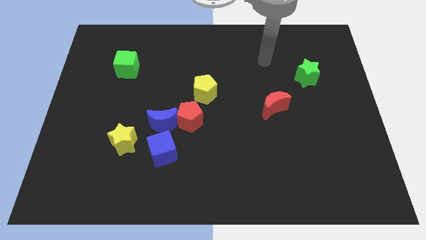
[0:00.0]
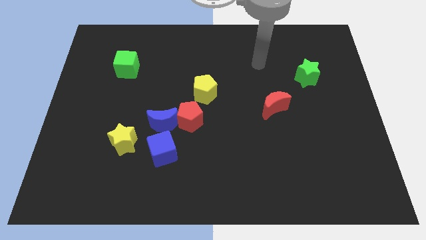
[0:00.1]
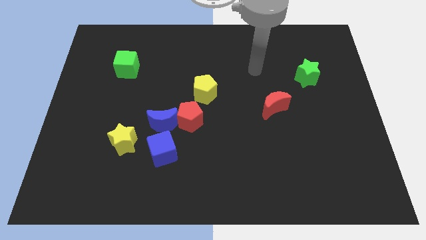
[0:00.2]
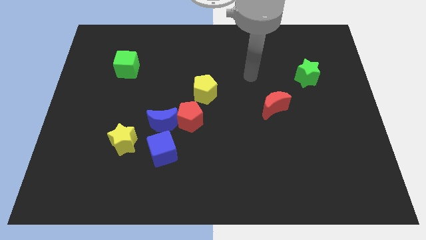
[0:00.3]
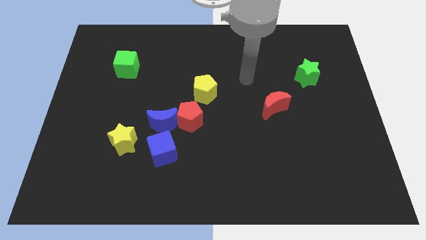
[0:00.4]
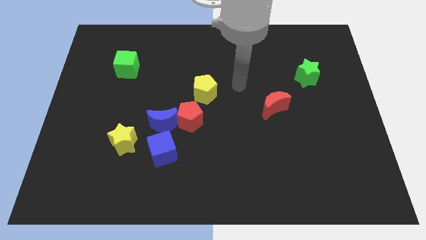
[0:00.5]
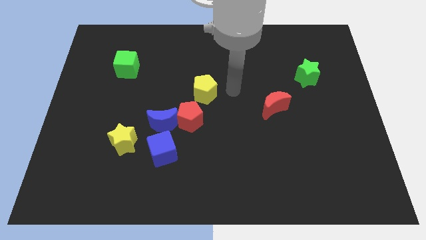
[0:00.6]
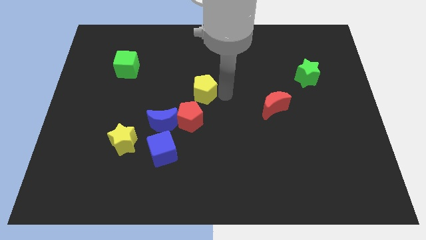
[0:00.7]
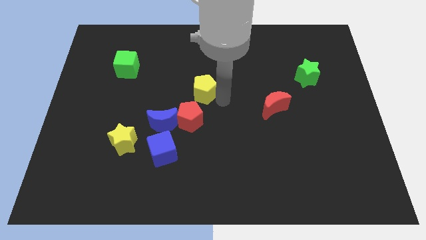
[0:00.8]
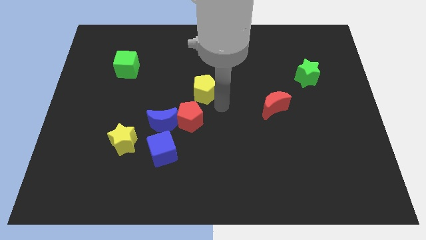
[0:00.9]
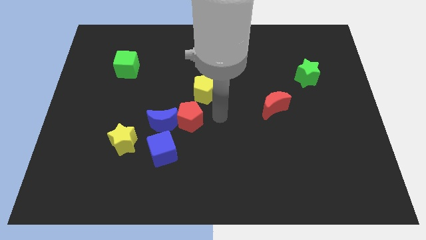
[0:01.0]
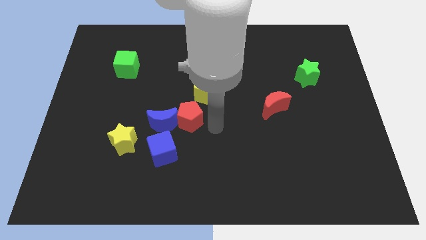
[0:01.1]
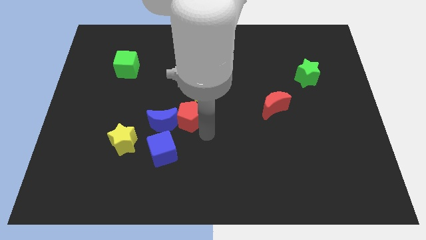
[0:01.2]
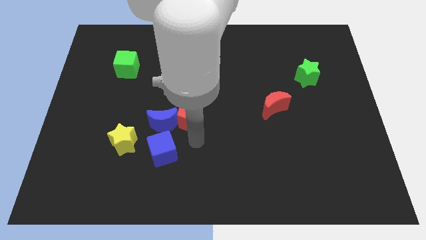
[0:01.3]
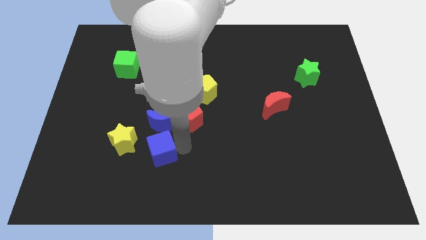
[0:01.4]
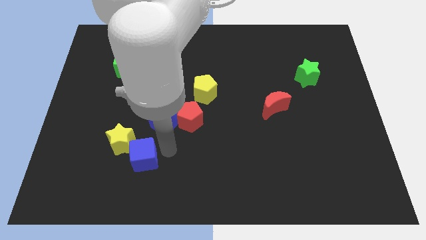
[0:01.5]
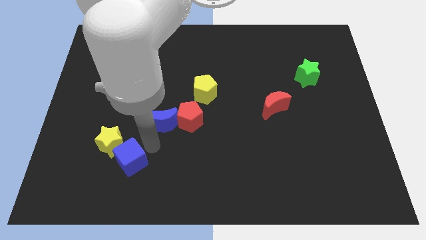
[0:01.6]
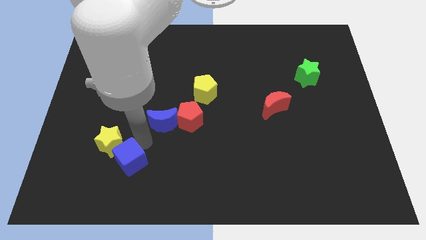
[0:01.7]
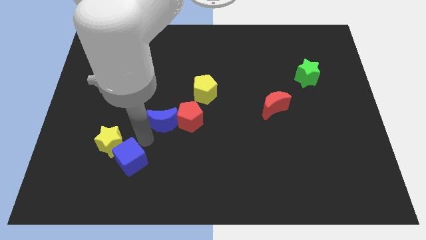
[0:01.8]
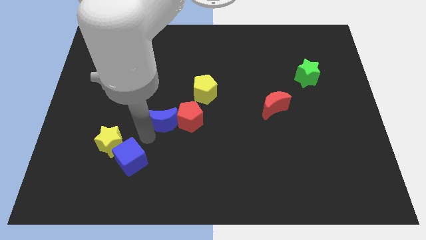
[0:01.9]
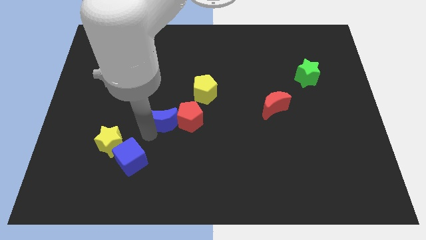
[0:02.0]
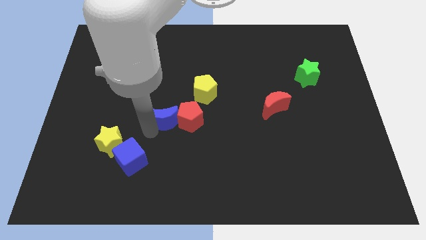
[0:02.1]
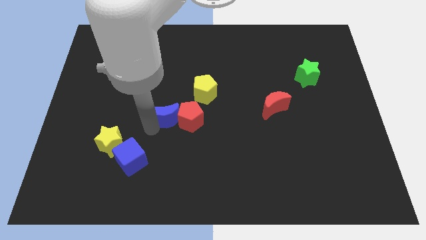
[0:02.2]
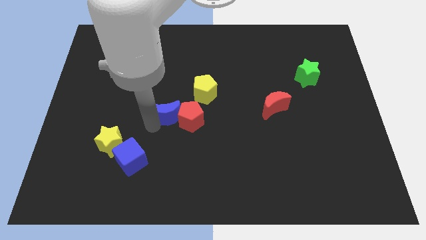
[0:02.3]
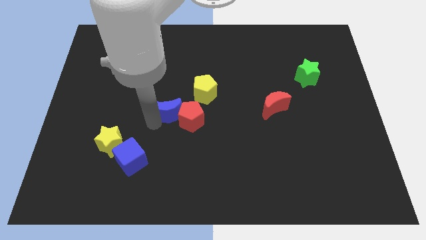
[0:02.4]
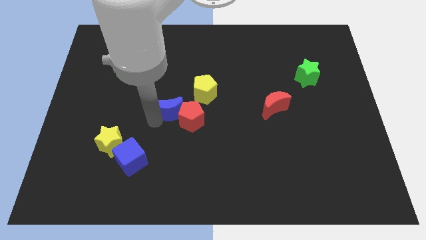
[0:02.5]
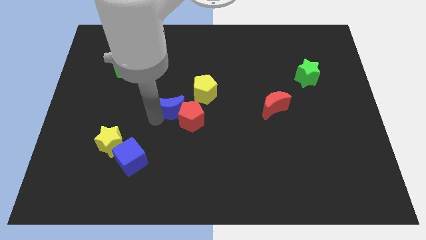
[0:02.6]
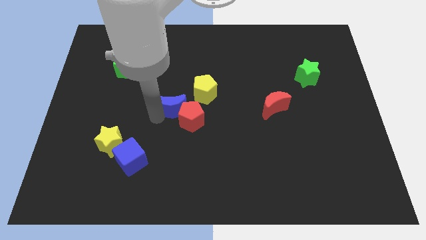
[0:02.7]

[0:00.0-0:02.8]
separate the blue moon from the group

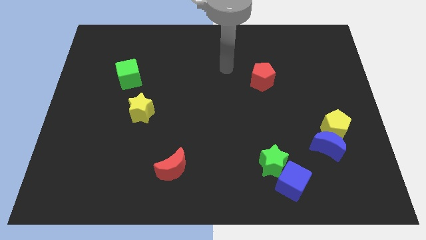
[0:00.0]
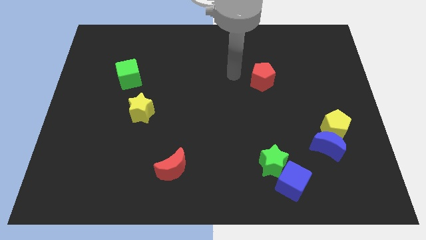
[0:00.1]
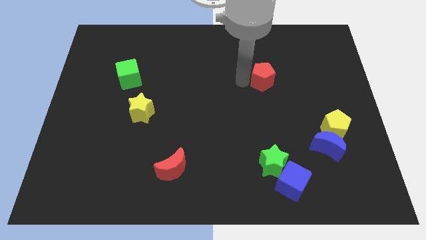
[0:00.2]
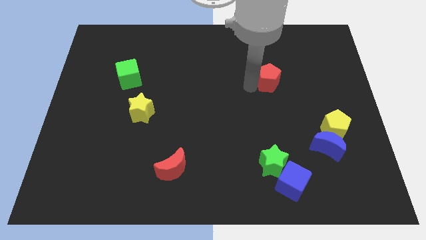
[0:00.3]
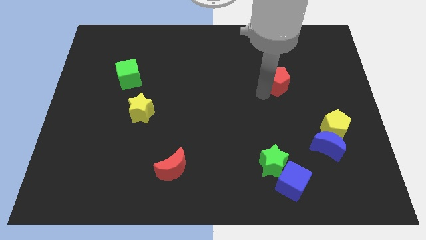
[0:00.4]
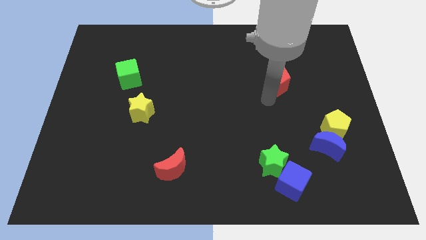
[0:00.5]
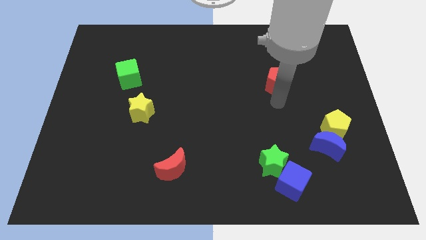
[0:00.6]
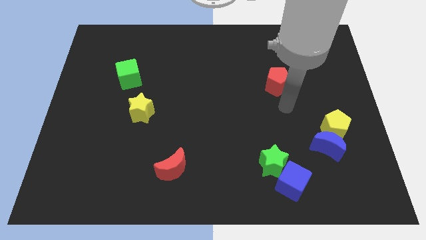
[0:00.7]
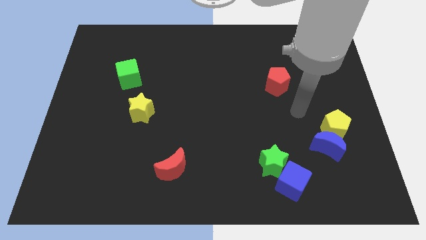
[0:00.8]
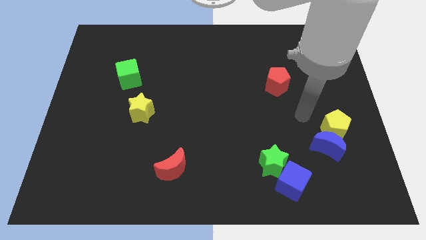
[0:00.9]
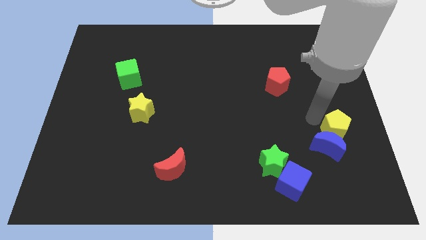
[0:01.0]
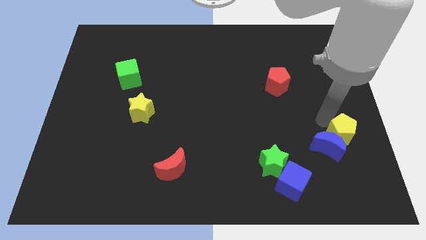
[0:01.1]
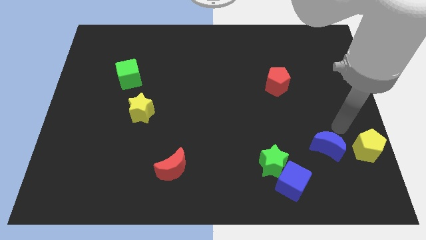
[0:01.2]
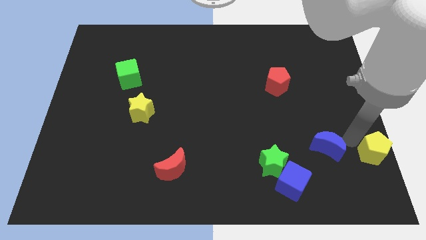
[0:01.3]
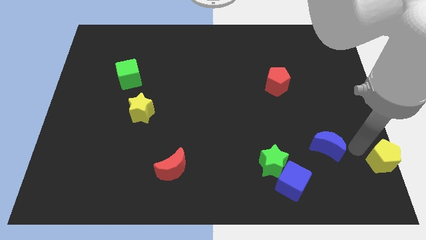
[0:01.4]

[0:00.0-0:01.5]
separate the blue moon from the yellow pentagon

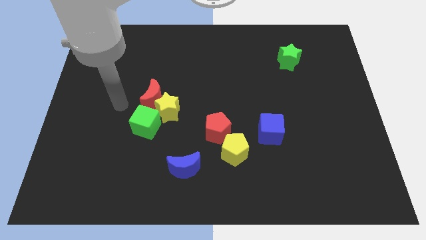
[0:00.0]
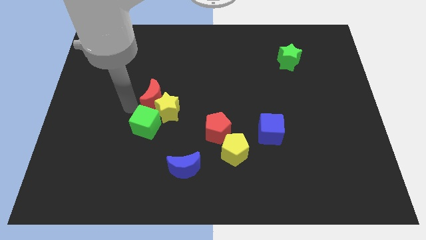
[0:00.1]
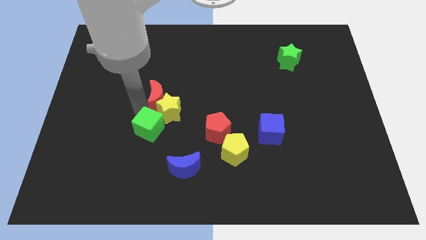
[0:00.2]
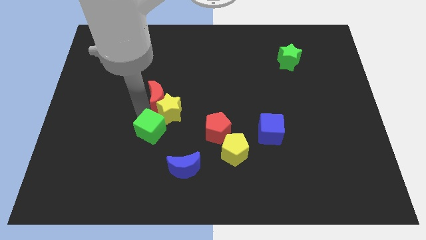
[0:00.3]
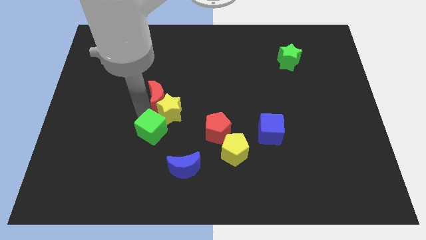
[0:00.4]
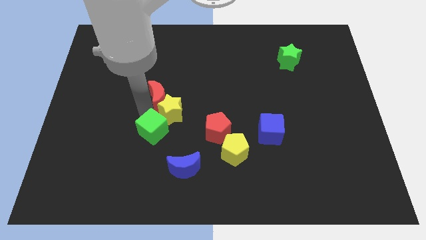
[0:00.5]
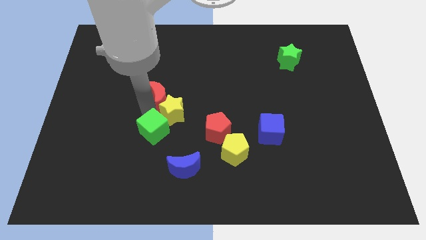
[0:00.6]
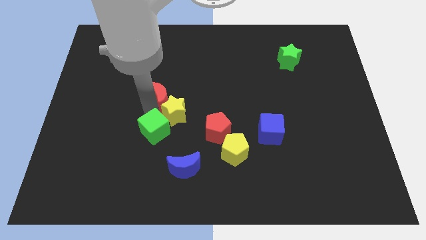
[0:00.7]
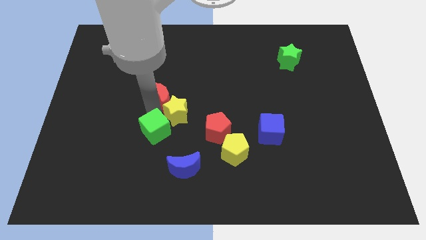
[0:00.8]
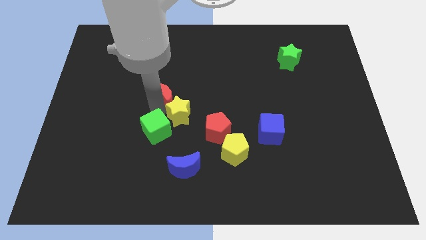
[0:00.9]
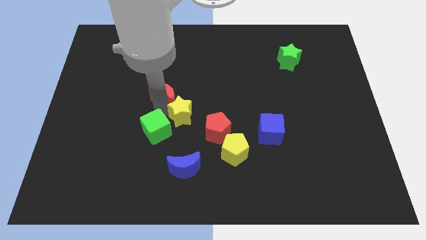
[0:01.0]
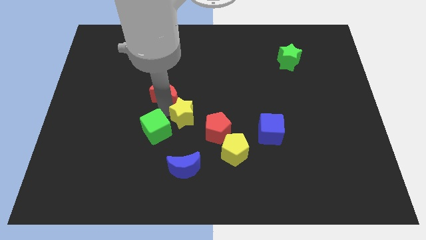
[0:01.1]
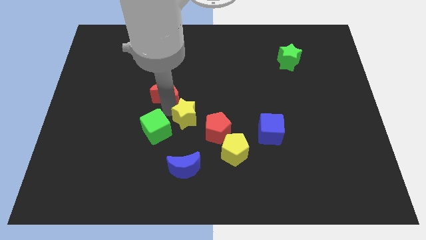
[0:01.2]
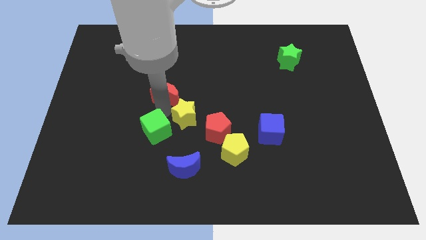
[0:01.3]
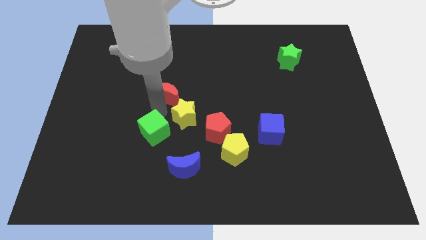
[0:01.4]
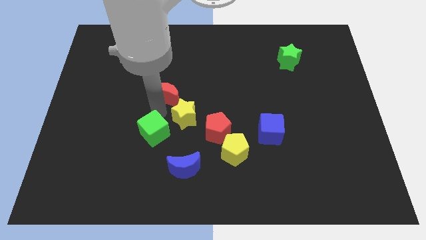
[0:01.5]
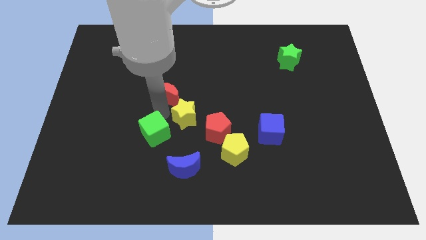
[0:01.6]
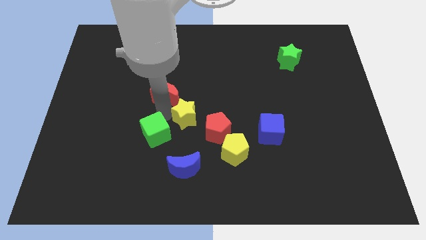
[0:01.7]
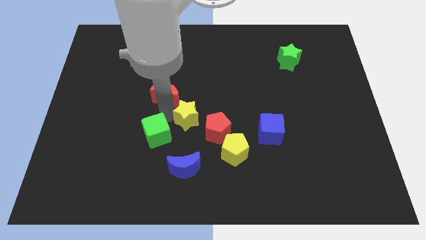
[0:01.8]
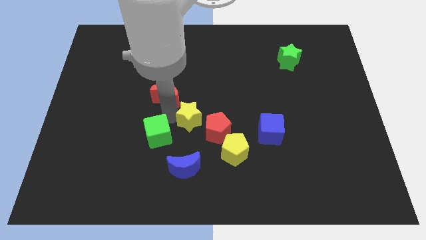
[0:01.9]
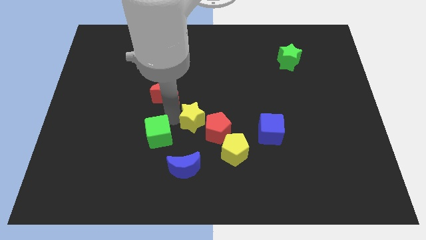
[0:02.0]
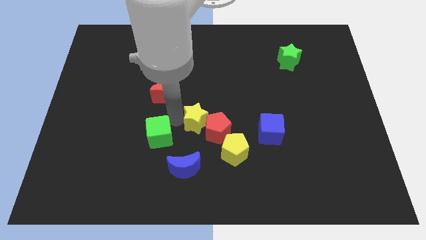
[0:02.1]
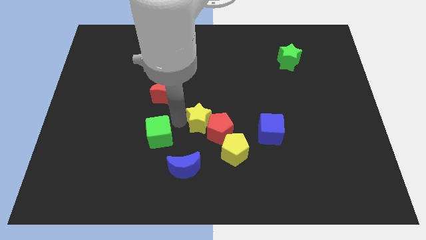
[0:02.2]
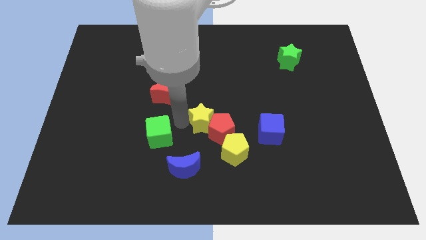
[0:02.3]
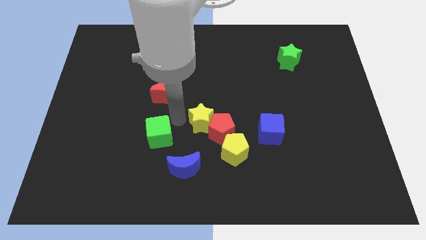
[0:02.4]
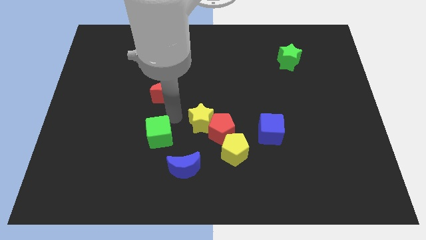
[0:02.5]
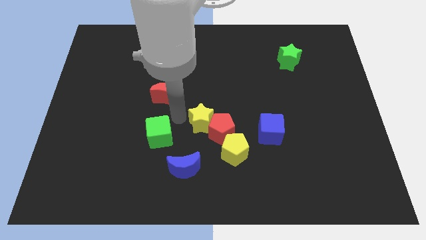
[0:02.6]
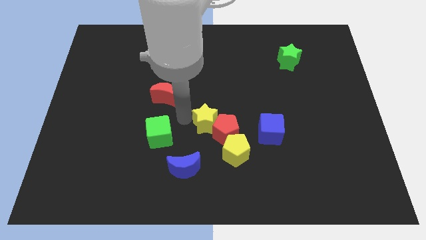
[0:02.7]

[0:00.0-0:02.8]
separate the yellow star from the red moon and green cube

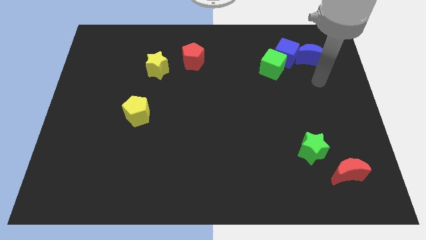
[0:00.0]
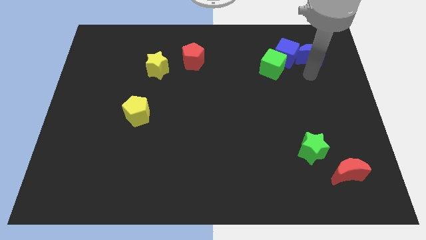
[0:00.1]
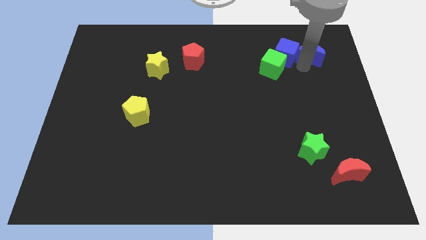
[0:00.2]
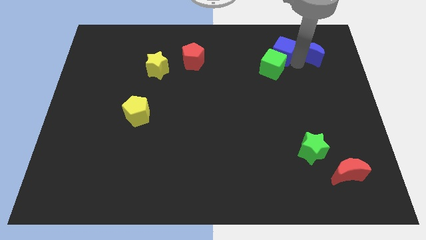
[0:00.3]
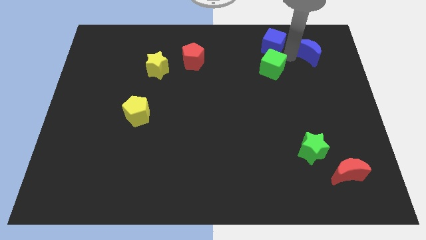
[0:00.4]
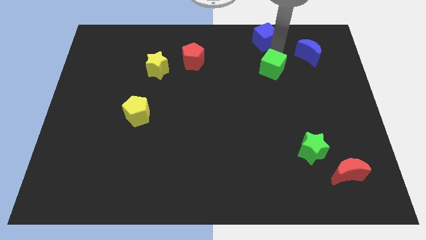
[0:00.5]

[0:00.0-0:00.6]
separate the green cube from the blue cube

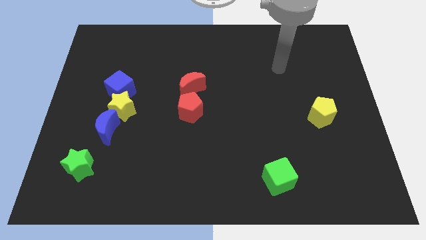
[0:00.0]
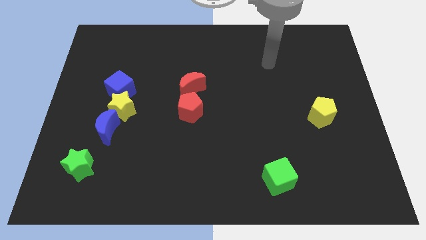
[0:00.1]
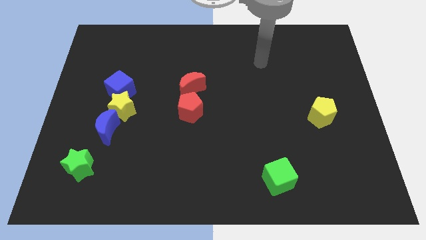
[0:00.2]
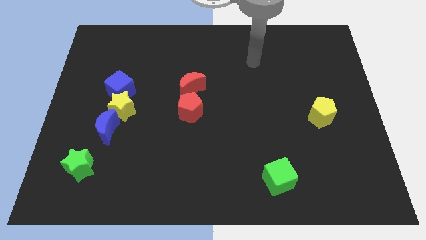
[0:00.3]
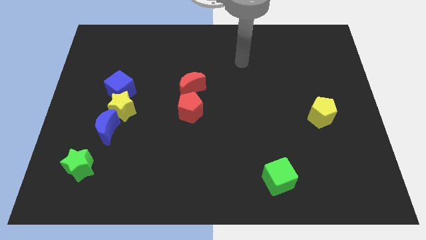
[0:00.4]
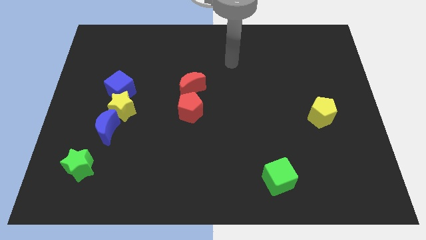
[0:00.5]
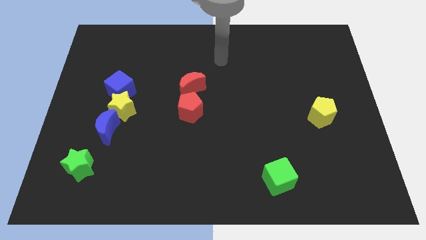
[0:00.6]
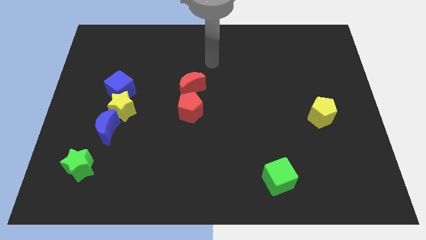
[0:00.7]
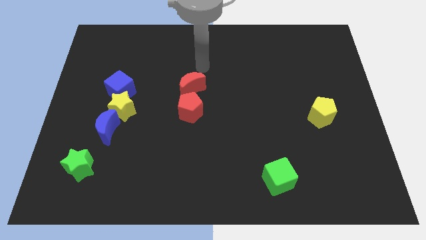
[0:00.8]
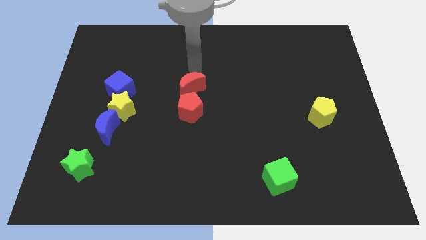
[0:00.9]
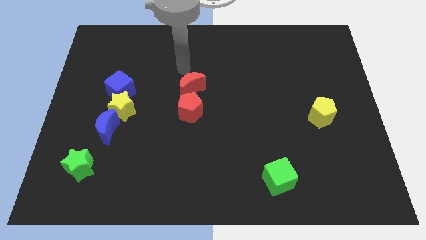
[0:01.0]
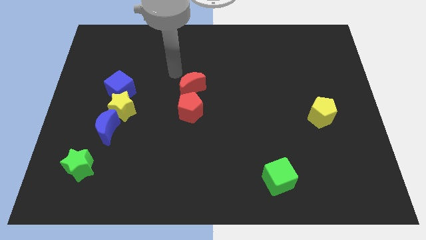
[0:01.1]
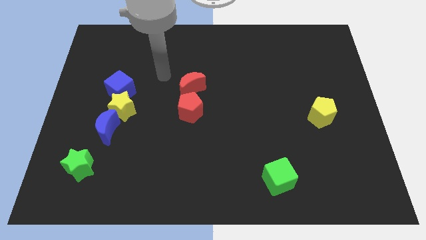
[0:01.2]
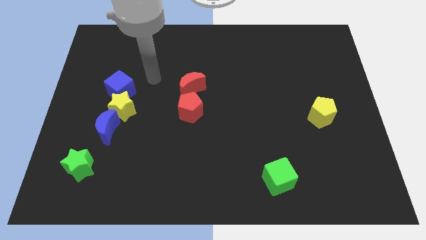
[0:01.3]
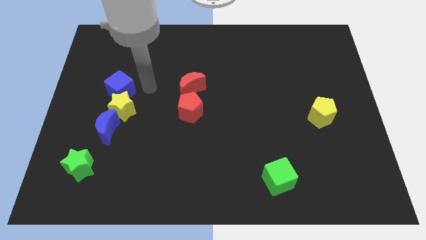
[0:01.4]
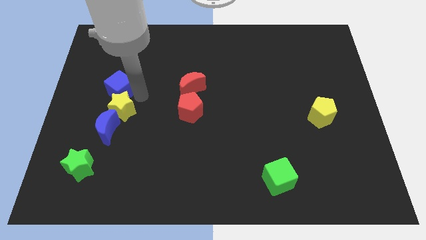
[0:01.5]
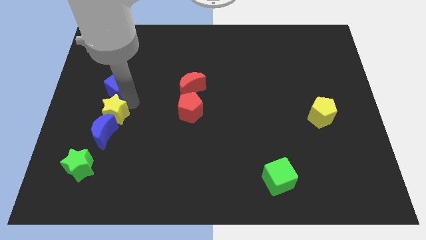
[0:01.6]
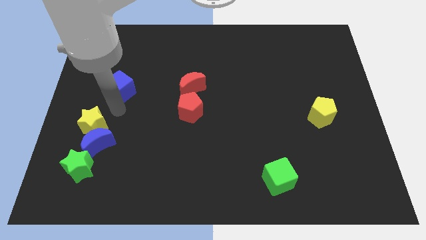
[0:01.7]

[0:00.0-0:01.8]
pull the blue cube apart from the yellow star
